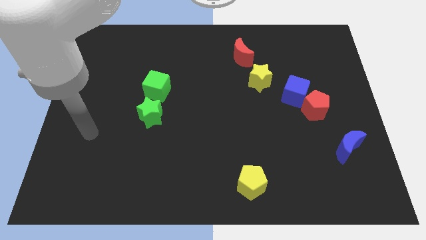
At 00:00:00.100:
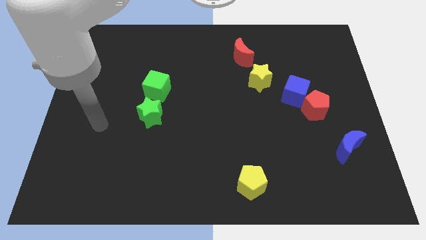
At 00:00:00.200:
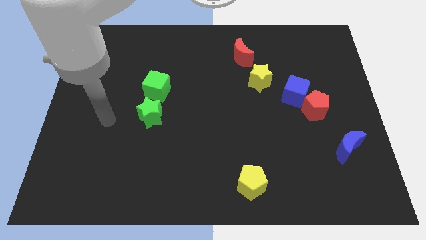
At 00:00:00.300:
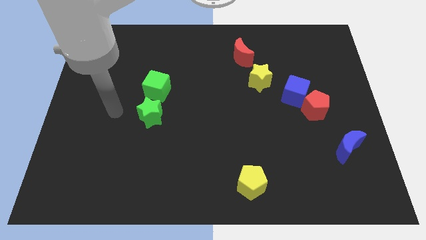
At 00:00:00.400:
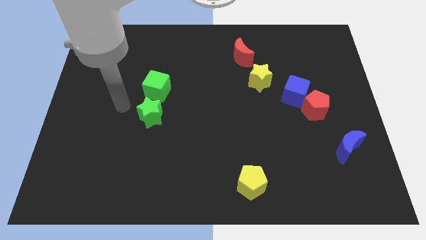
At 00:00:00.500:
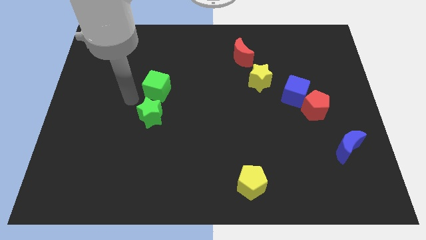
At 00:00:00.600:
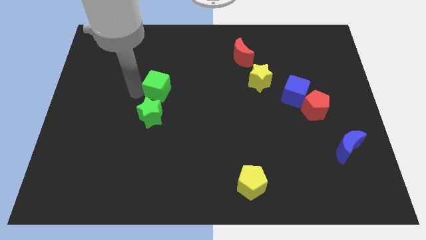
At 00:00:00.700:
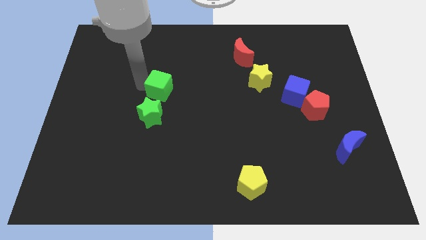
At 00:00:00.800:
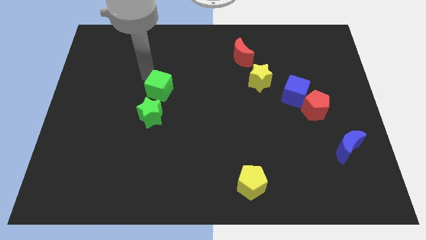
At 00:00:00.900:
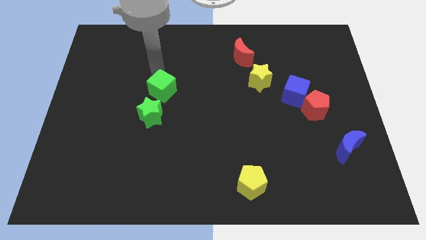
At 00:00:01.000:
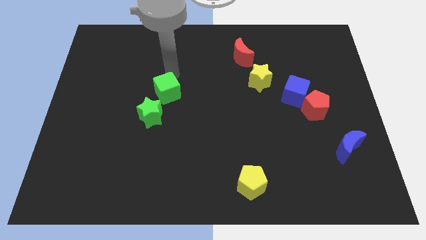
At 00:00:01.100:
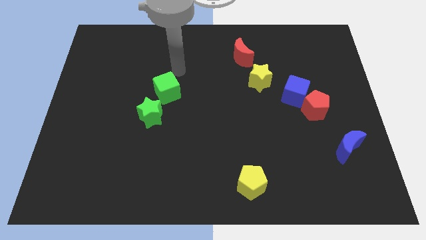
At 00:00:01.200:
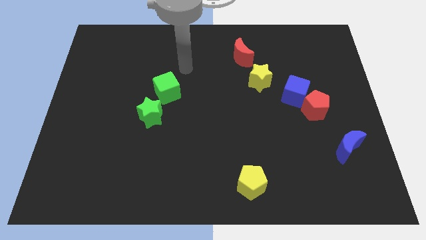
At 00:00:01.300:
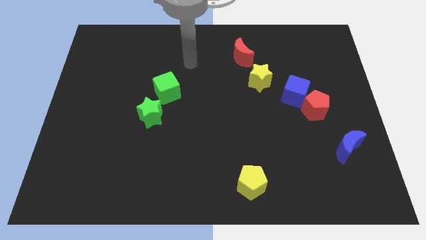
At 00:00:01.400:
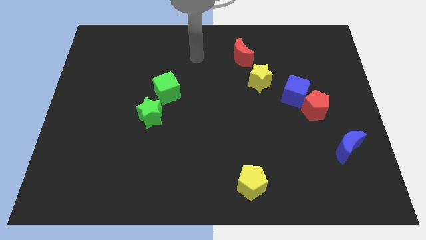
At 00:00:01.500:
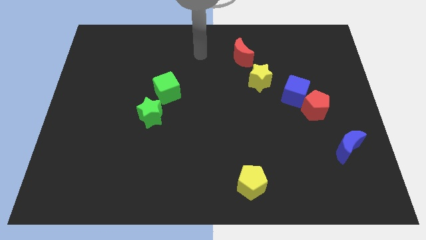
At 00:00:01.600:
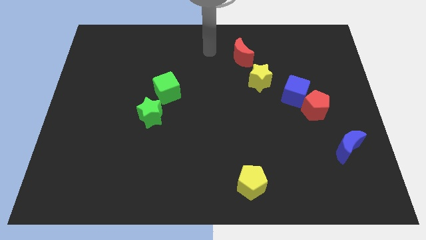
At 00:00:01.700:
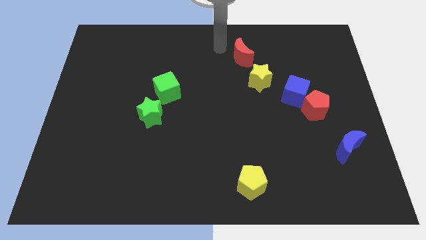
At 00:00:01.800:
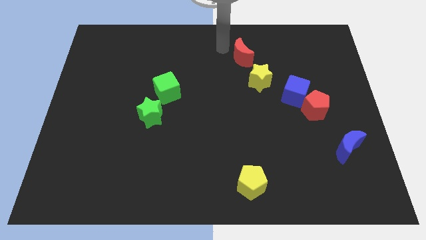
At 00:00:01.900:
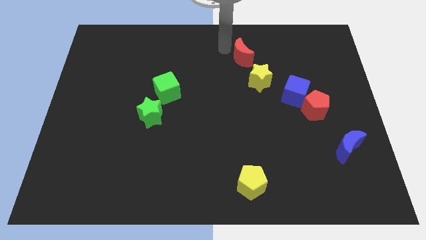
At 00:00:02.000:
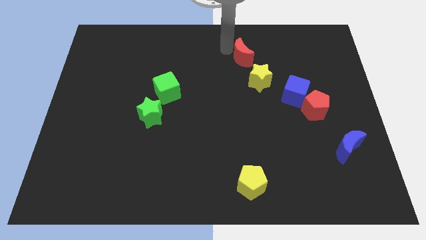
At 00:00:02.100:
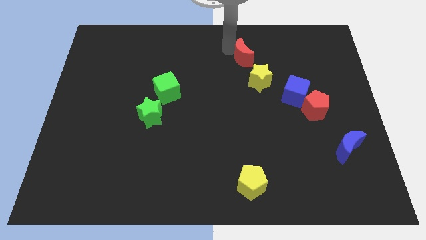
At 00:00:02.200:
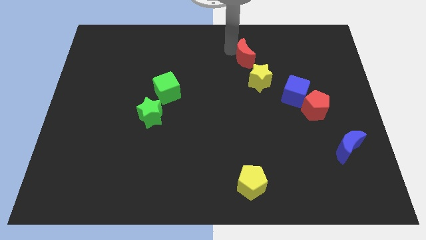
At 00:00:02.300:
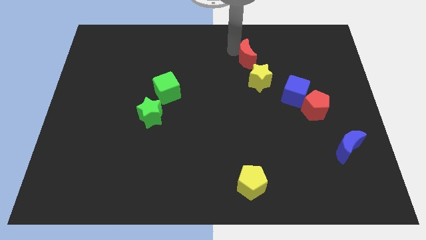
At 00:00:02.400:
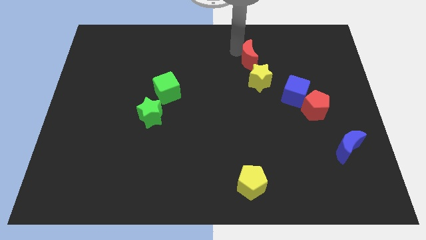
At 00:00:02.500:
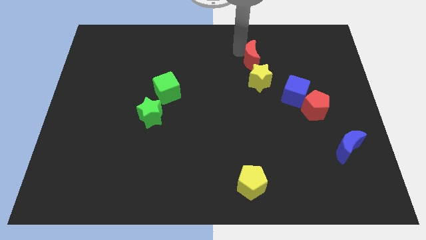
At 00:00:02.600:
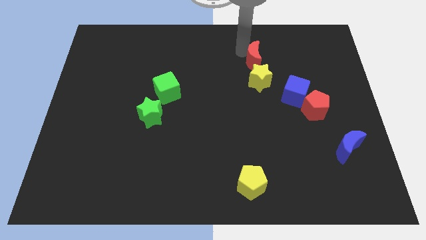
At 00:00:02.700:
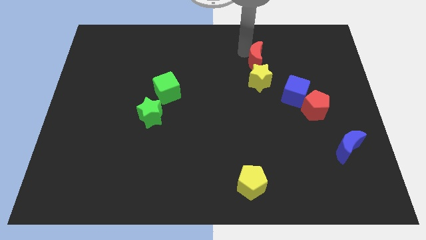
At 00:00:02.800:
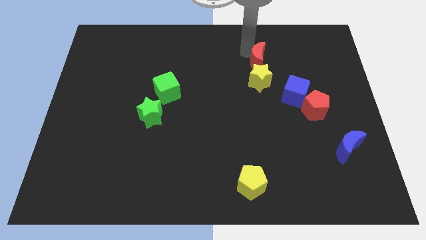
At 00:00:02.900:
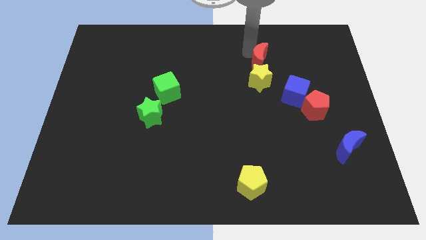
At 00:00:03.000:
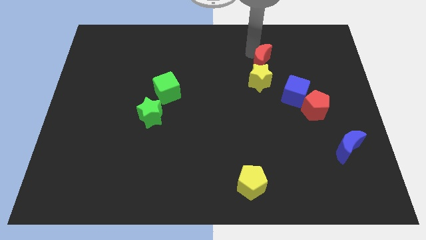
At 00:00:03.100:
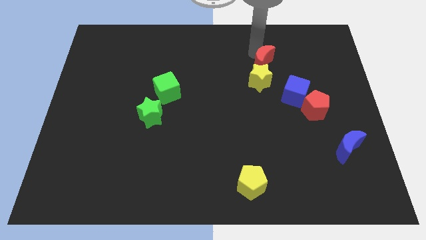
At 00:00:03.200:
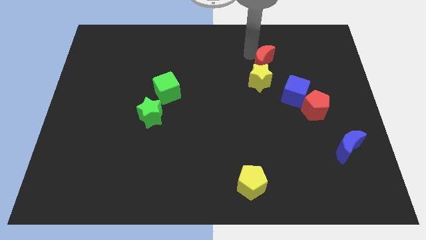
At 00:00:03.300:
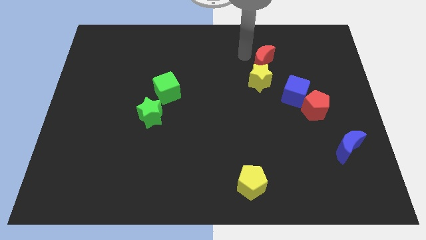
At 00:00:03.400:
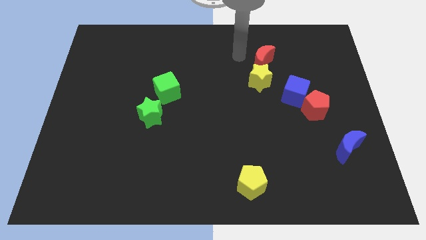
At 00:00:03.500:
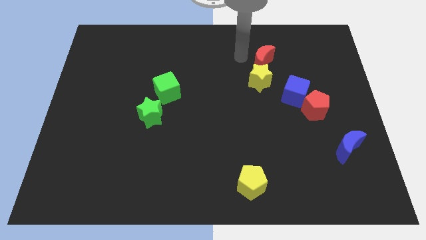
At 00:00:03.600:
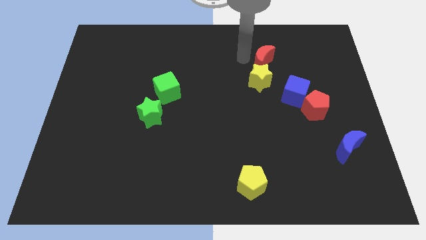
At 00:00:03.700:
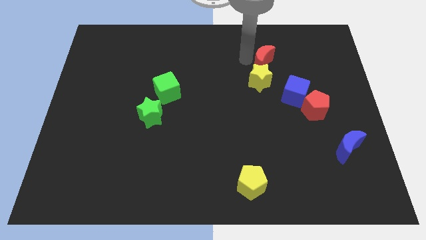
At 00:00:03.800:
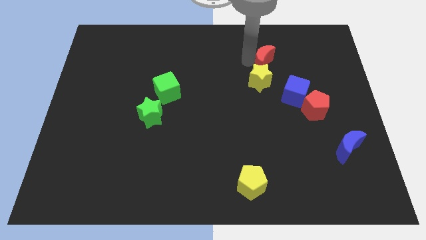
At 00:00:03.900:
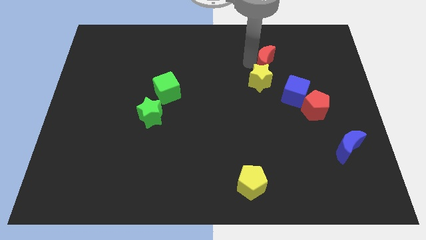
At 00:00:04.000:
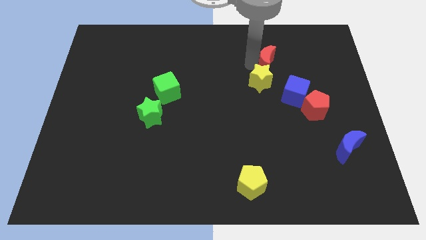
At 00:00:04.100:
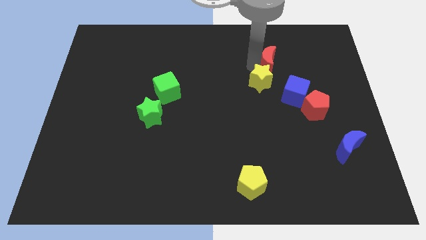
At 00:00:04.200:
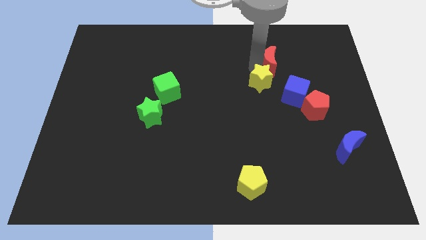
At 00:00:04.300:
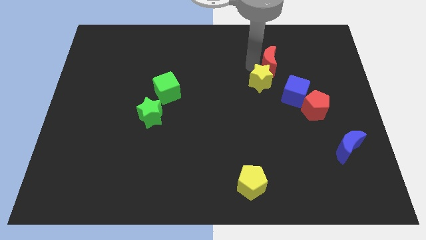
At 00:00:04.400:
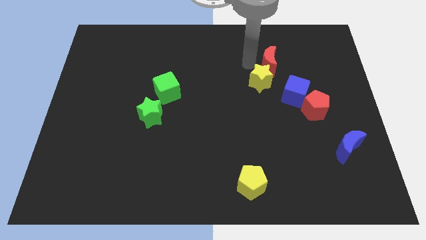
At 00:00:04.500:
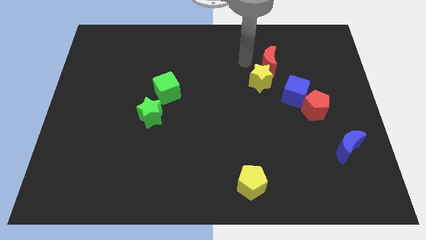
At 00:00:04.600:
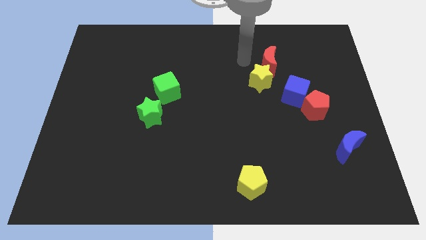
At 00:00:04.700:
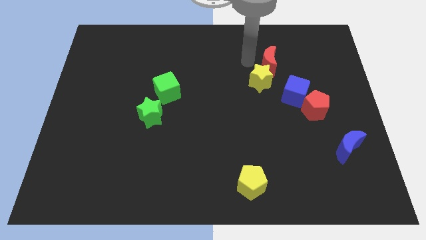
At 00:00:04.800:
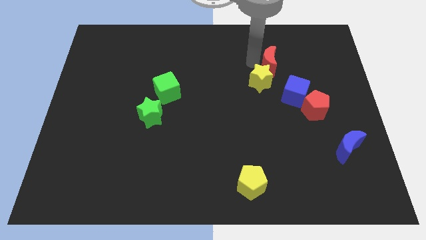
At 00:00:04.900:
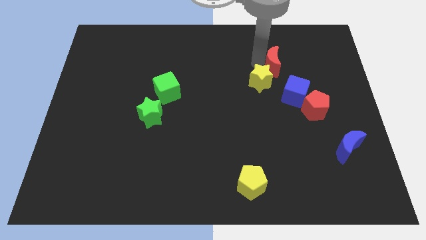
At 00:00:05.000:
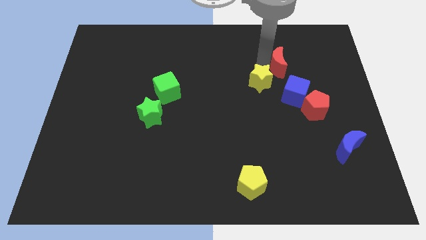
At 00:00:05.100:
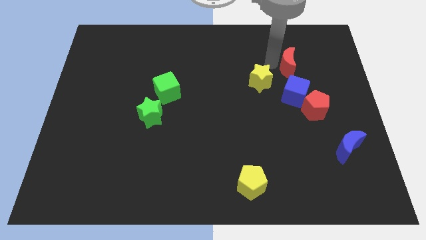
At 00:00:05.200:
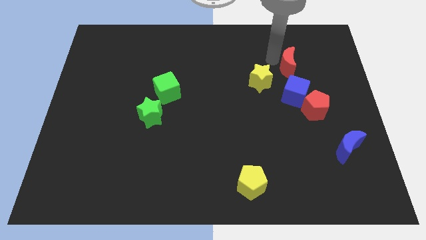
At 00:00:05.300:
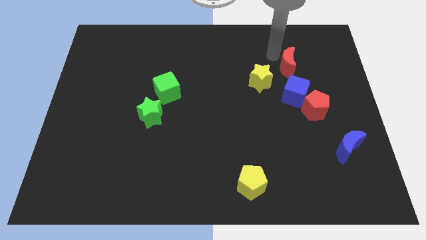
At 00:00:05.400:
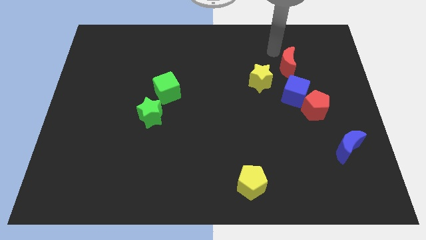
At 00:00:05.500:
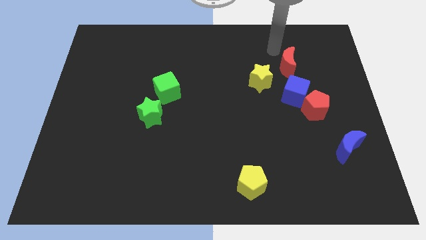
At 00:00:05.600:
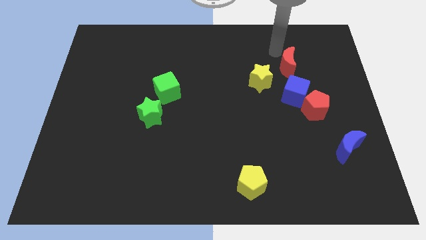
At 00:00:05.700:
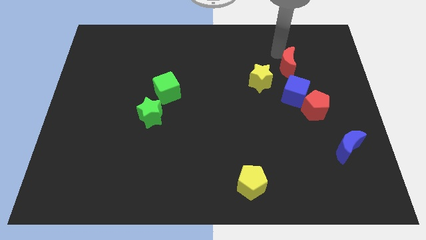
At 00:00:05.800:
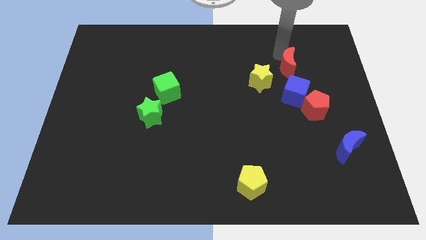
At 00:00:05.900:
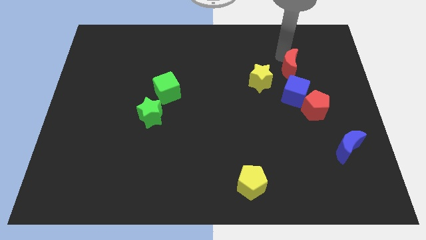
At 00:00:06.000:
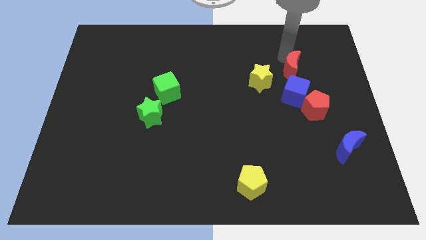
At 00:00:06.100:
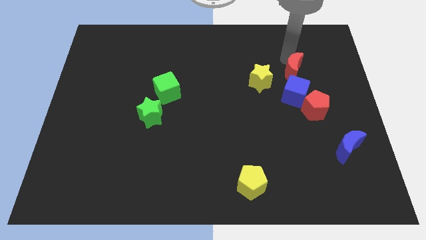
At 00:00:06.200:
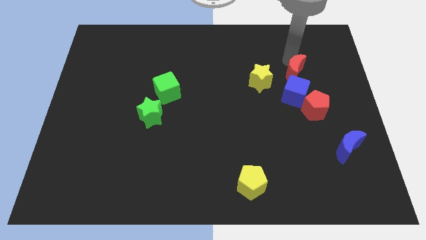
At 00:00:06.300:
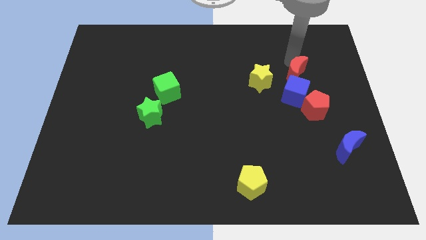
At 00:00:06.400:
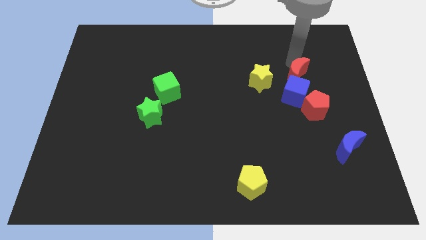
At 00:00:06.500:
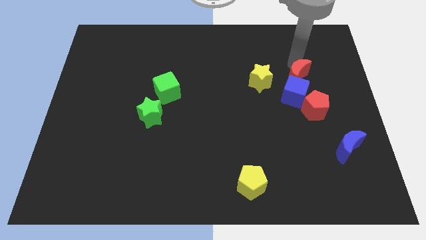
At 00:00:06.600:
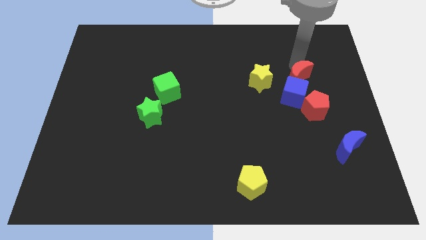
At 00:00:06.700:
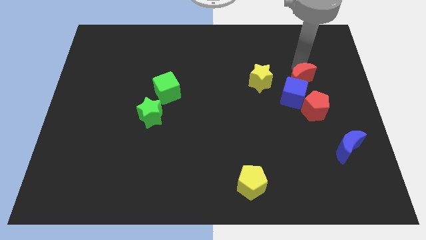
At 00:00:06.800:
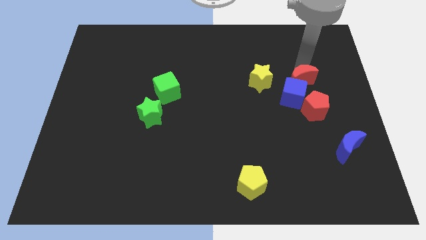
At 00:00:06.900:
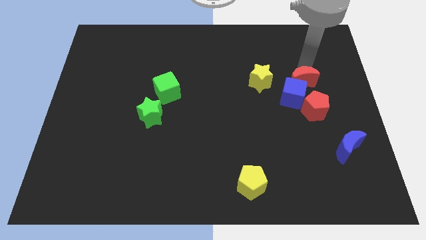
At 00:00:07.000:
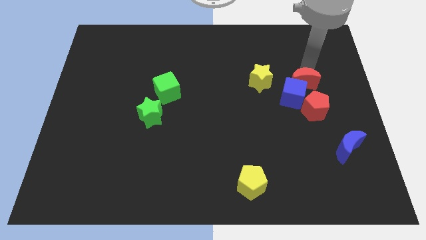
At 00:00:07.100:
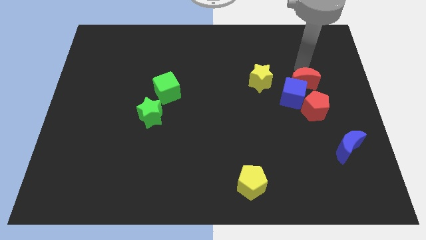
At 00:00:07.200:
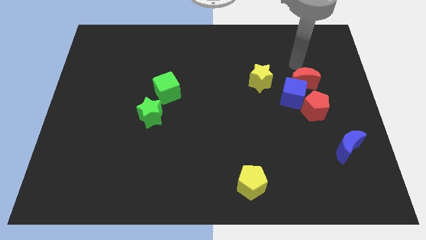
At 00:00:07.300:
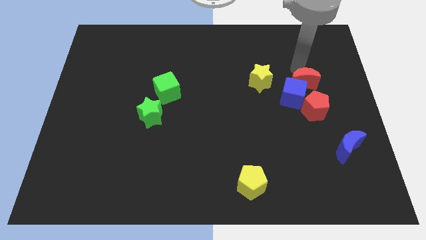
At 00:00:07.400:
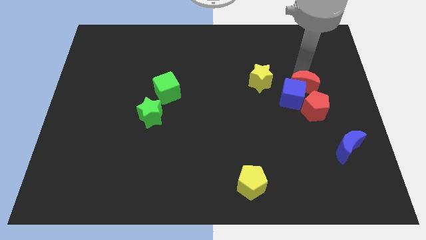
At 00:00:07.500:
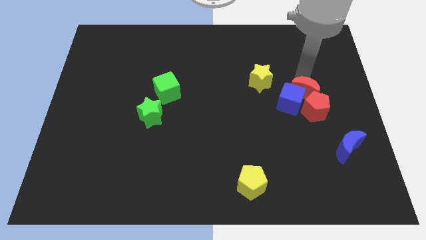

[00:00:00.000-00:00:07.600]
put the red moon close to the red pentagon

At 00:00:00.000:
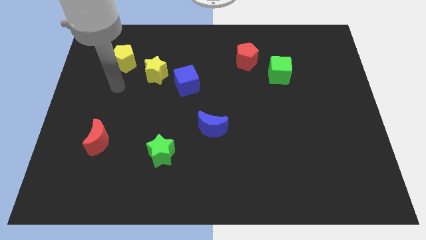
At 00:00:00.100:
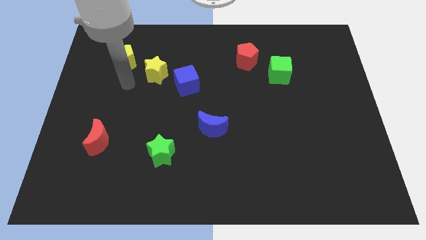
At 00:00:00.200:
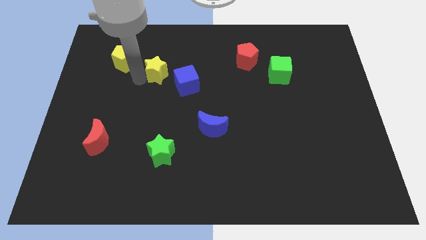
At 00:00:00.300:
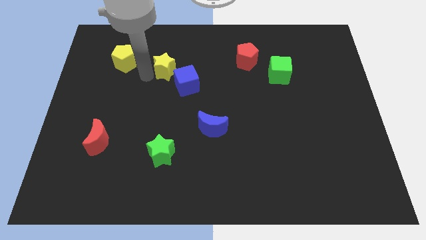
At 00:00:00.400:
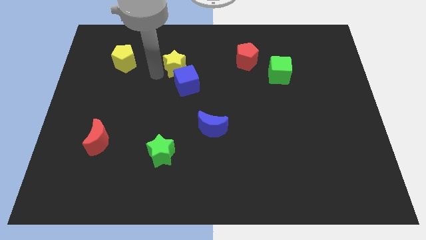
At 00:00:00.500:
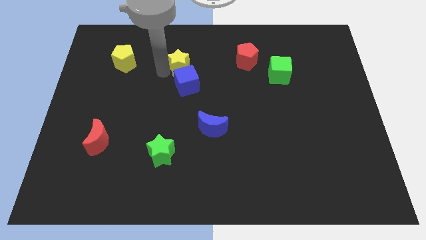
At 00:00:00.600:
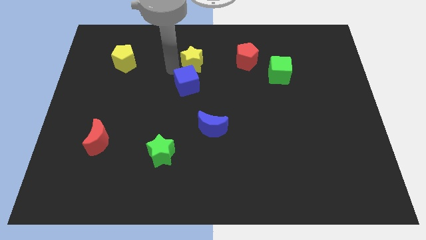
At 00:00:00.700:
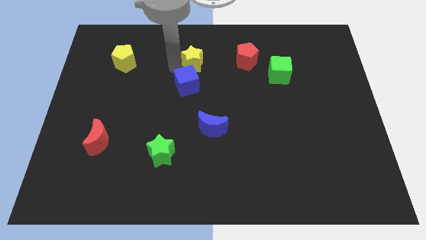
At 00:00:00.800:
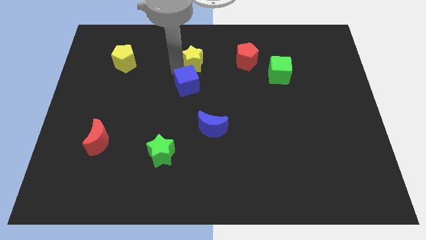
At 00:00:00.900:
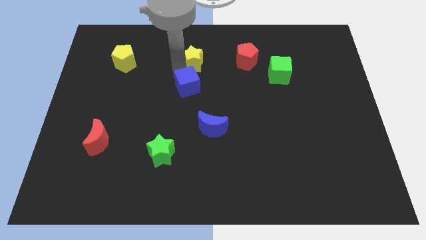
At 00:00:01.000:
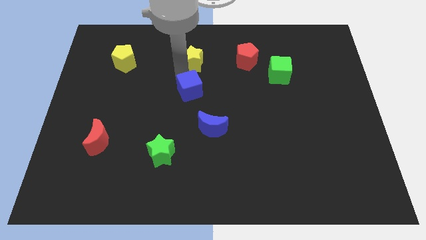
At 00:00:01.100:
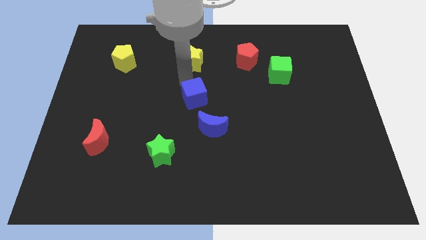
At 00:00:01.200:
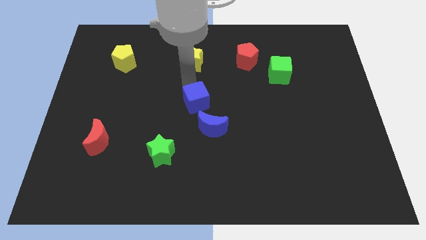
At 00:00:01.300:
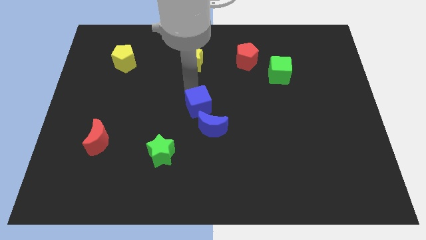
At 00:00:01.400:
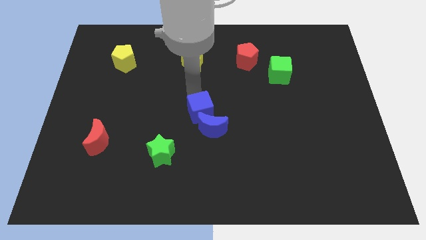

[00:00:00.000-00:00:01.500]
slide the blue cube next to the blue moon
